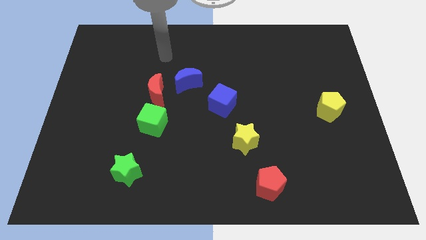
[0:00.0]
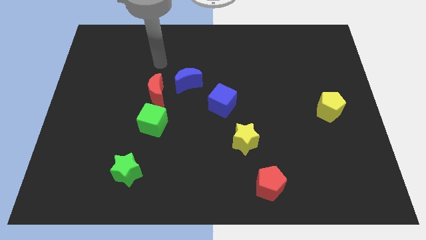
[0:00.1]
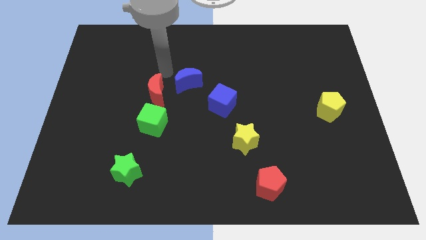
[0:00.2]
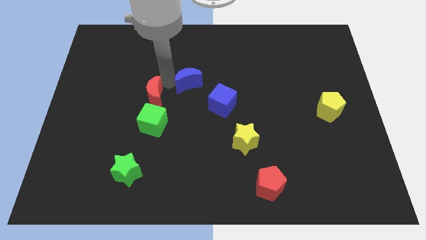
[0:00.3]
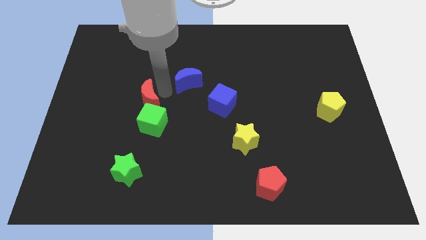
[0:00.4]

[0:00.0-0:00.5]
pull the blue moon apart from the red moon

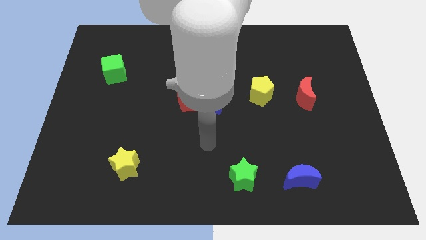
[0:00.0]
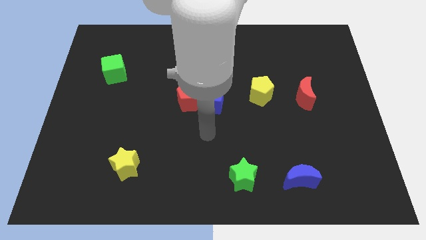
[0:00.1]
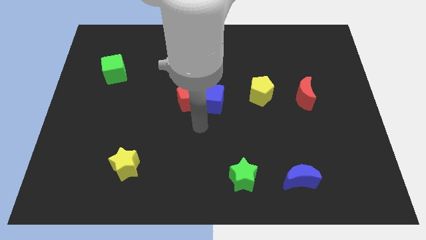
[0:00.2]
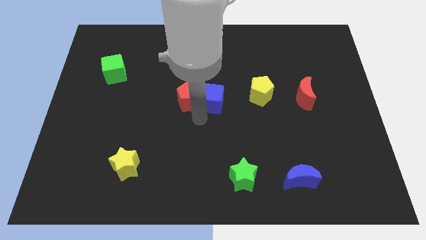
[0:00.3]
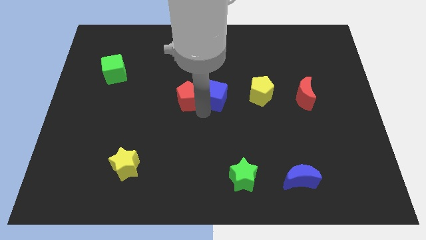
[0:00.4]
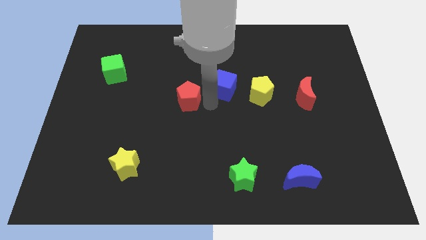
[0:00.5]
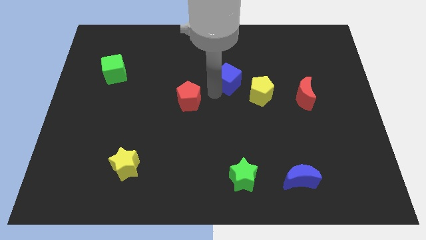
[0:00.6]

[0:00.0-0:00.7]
move the red pentagon away from the blue cube

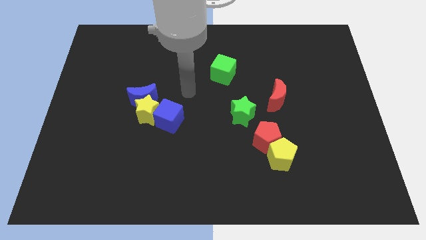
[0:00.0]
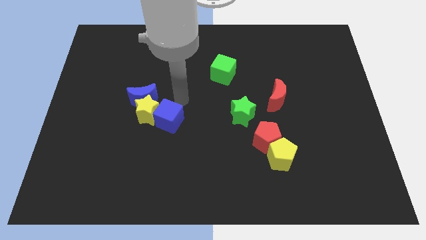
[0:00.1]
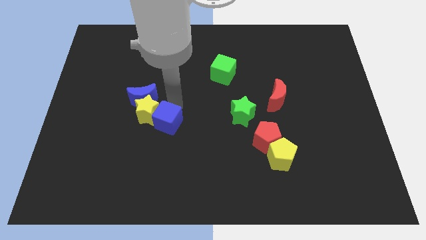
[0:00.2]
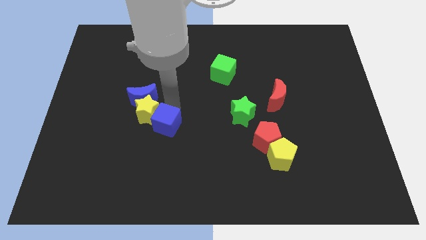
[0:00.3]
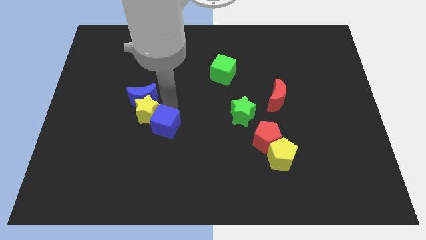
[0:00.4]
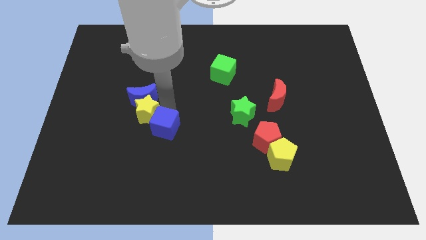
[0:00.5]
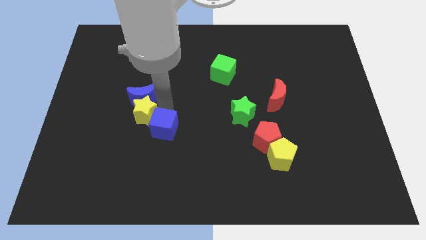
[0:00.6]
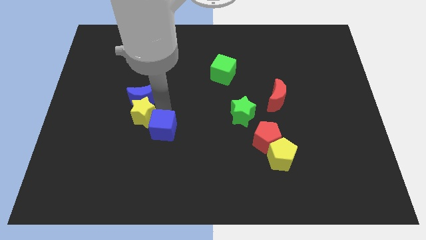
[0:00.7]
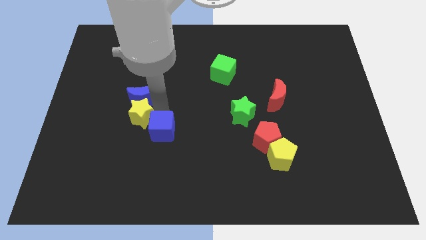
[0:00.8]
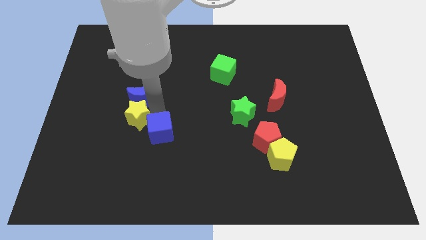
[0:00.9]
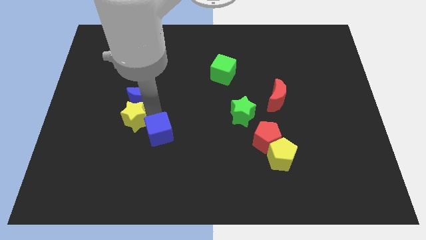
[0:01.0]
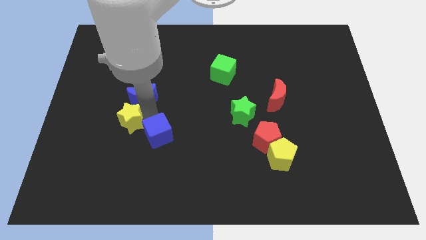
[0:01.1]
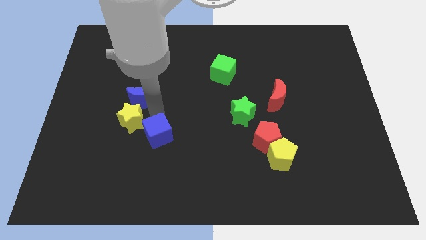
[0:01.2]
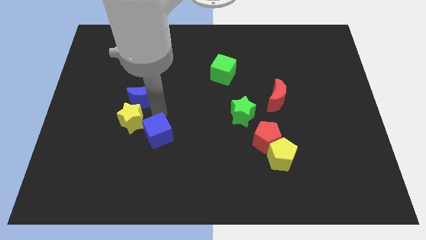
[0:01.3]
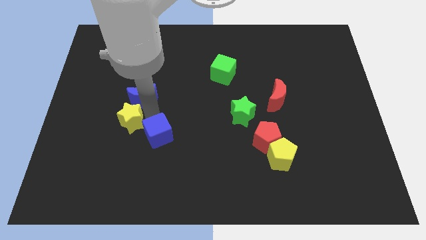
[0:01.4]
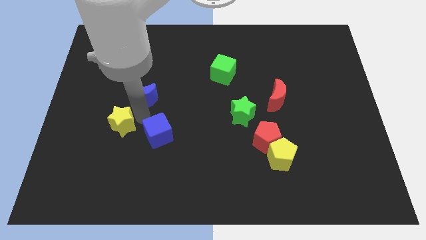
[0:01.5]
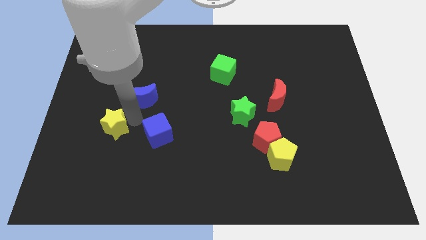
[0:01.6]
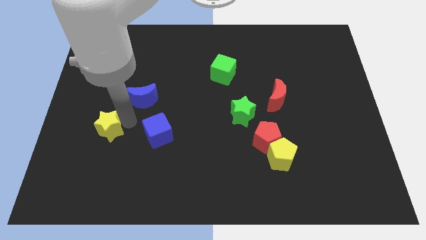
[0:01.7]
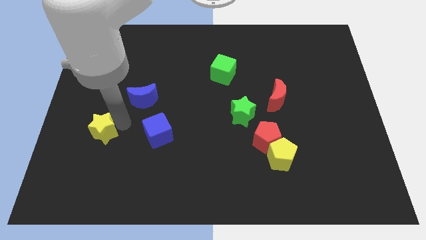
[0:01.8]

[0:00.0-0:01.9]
separate the yellow star from the blue moon and blue cube

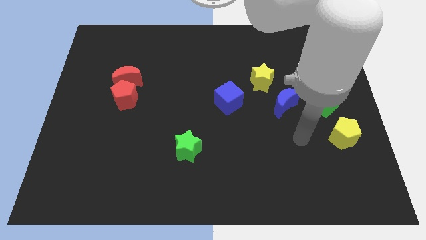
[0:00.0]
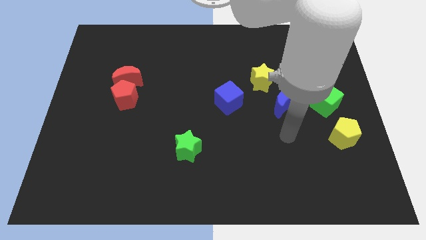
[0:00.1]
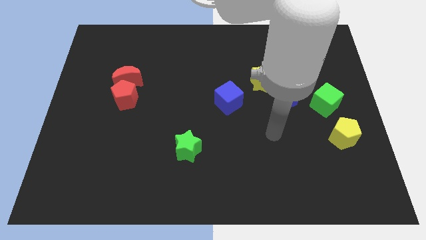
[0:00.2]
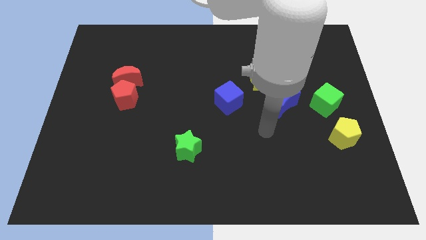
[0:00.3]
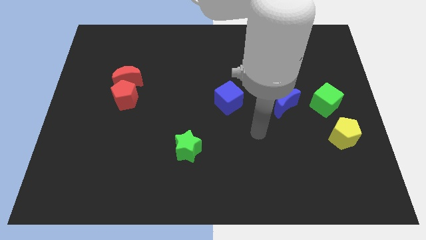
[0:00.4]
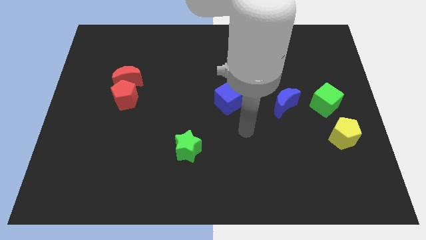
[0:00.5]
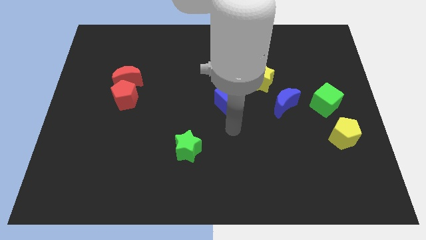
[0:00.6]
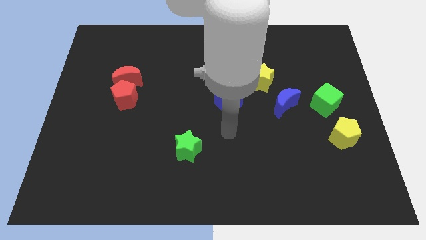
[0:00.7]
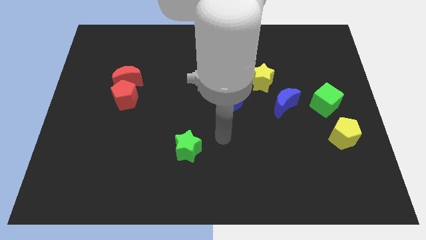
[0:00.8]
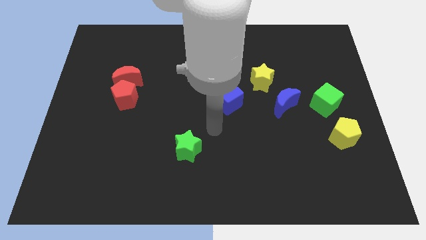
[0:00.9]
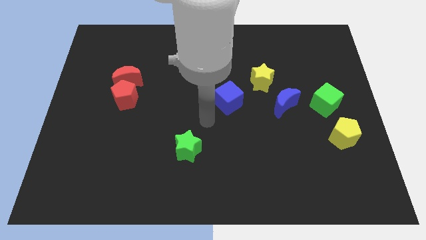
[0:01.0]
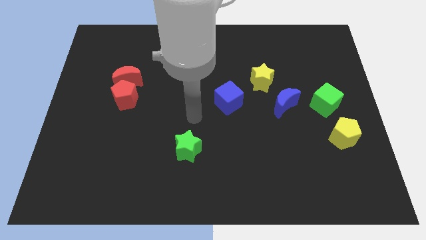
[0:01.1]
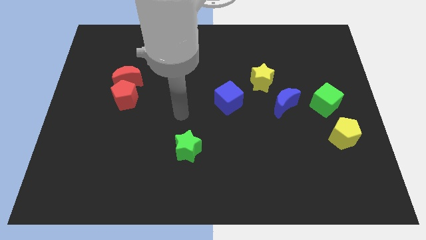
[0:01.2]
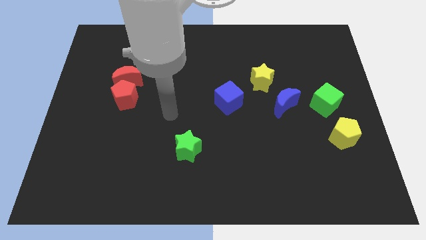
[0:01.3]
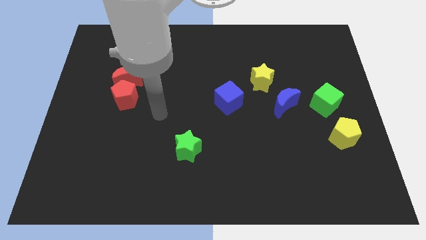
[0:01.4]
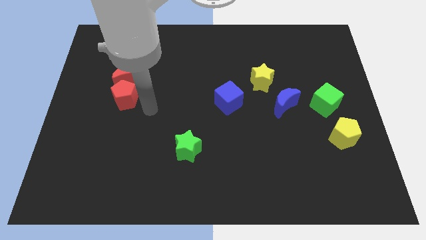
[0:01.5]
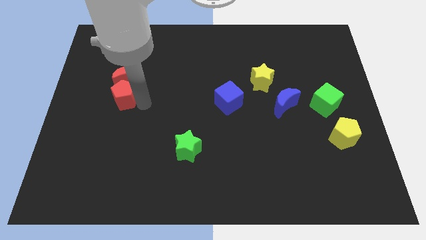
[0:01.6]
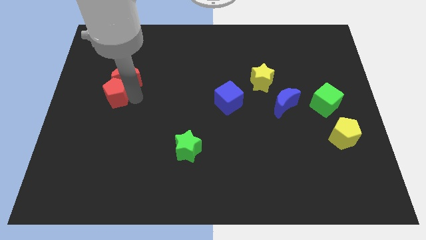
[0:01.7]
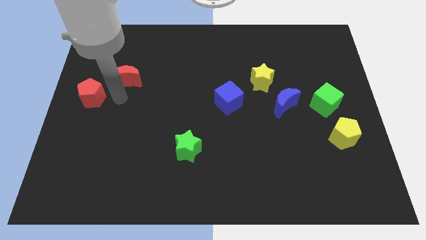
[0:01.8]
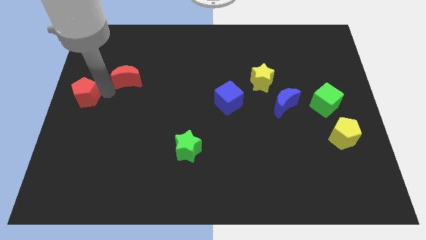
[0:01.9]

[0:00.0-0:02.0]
separate the red moon from the red pentagon

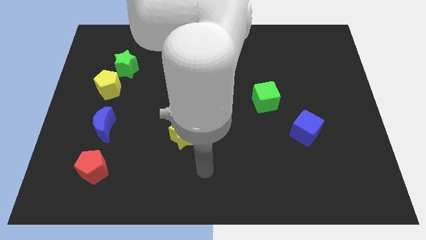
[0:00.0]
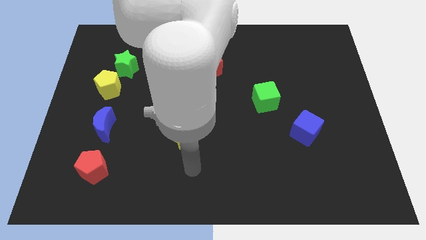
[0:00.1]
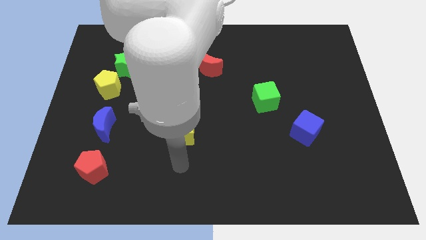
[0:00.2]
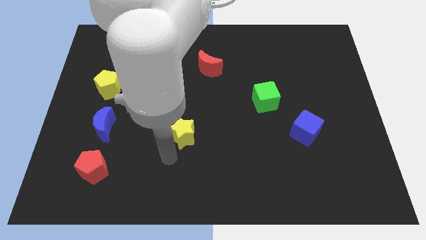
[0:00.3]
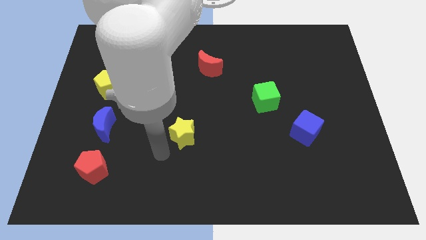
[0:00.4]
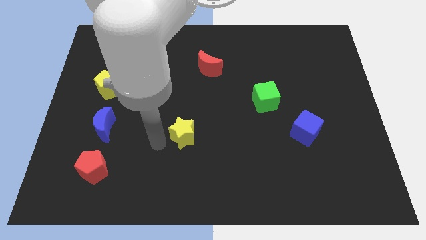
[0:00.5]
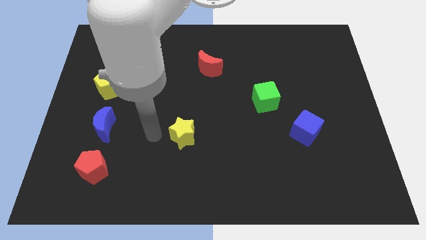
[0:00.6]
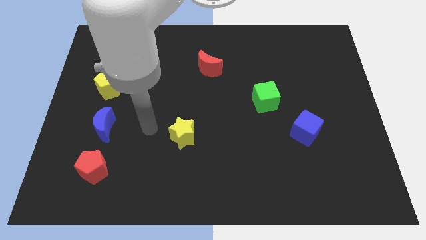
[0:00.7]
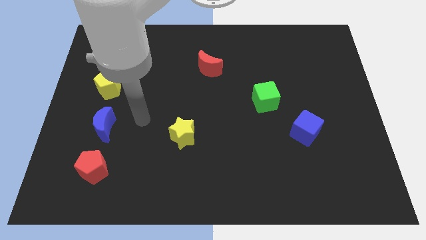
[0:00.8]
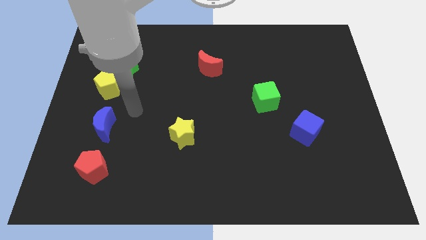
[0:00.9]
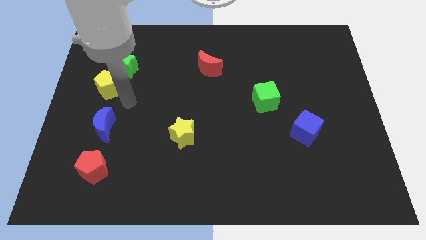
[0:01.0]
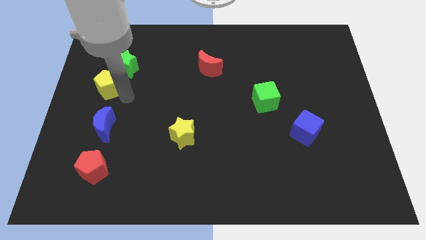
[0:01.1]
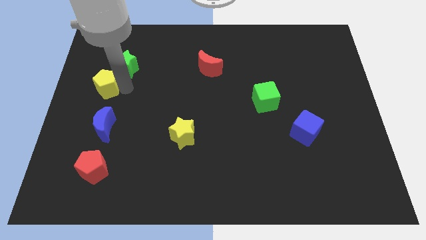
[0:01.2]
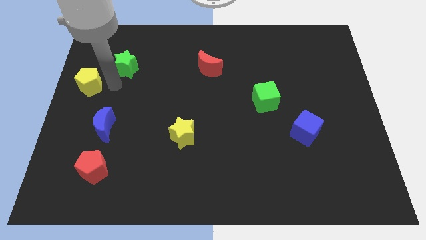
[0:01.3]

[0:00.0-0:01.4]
pull the green star apart from the yellow pentagon

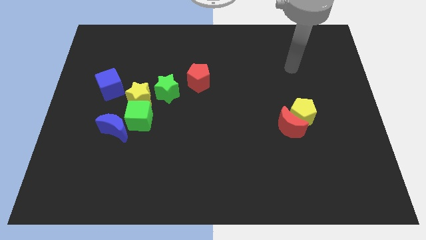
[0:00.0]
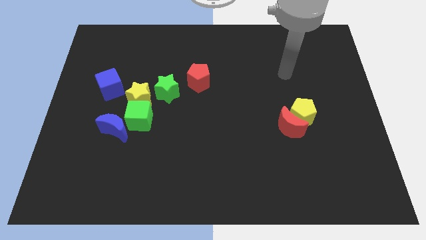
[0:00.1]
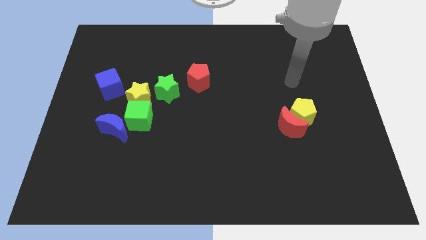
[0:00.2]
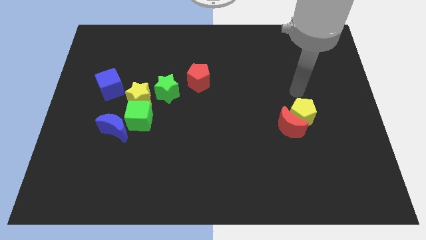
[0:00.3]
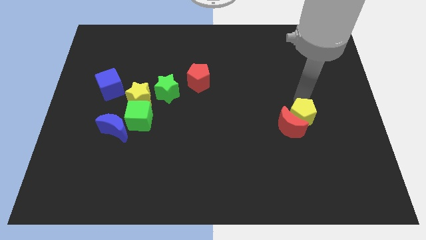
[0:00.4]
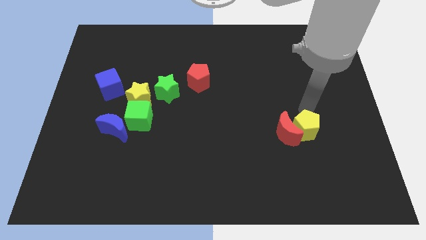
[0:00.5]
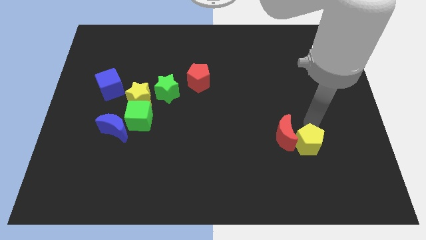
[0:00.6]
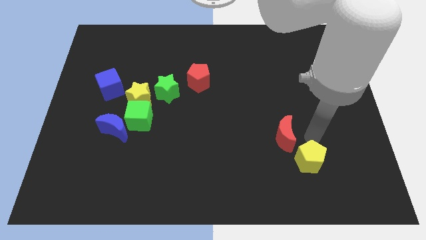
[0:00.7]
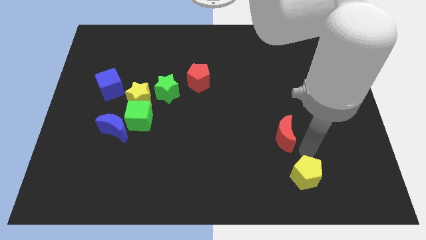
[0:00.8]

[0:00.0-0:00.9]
pull the red moon apart from the yellow pentagon

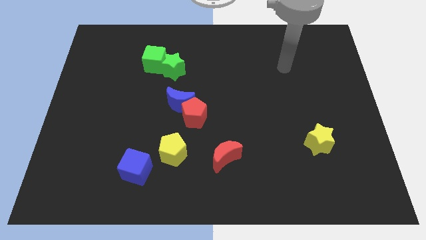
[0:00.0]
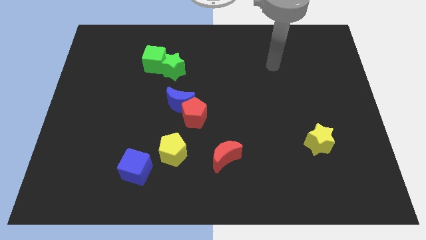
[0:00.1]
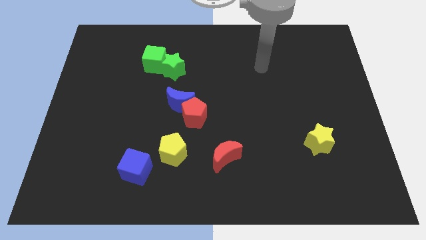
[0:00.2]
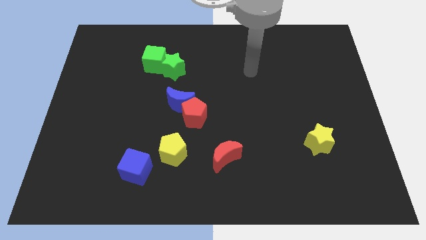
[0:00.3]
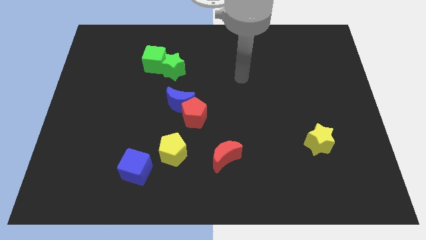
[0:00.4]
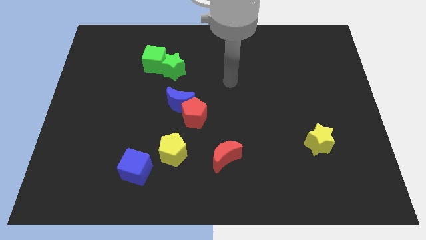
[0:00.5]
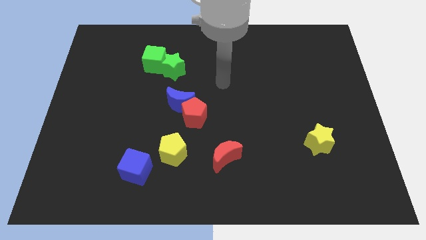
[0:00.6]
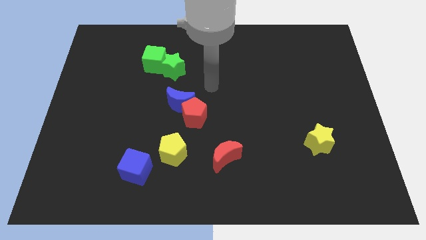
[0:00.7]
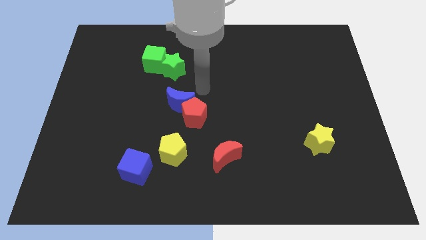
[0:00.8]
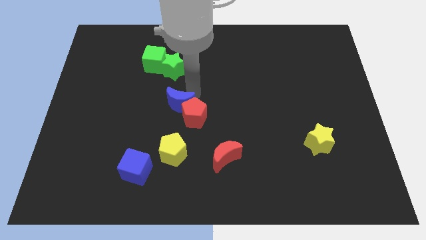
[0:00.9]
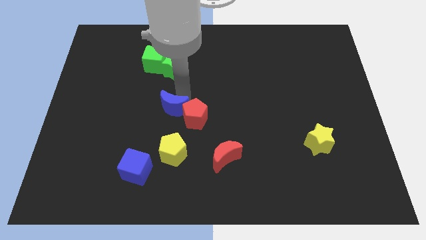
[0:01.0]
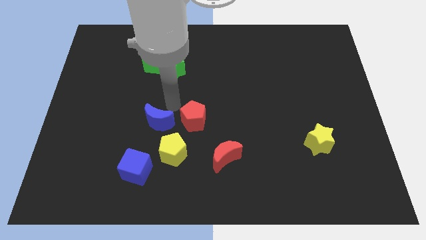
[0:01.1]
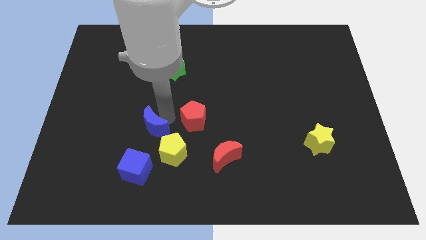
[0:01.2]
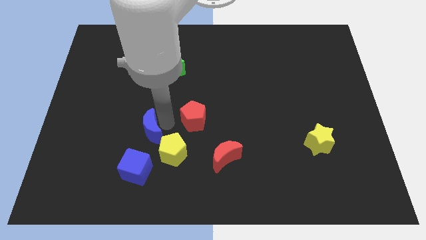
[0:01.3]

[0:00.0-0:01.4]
pull the red pentagon apart from the blue moon

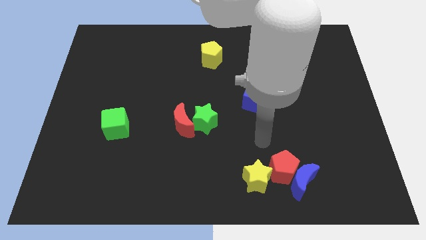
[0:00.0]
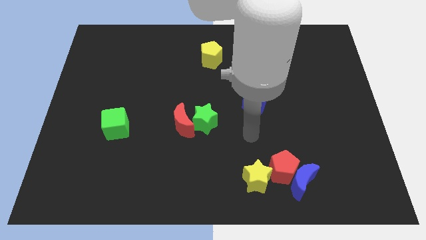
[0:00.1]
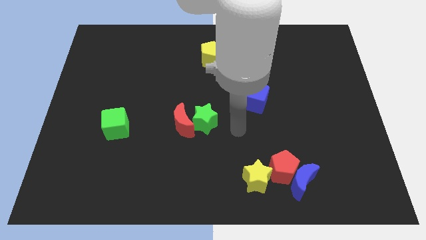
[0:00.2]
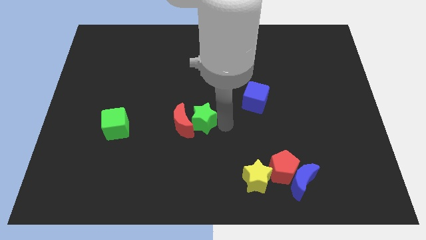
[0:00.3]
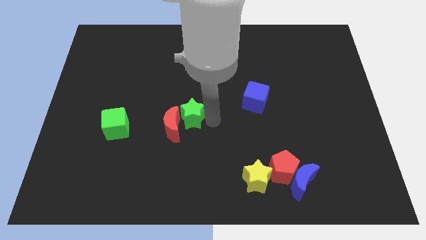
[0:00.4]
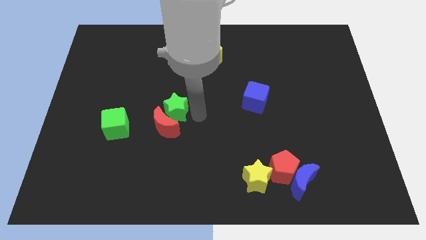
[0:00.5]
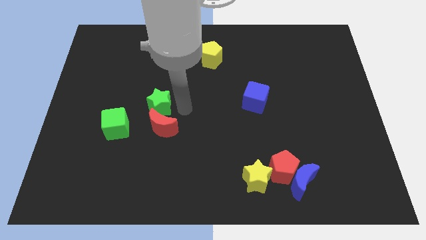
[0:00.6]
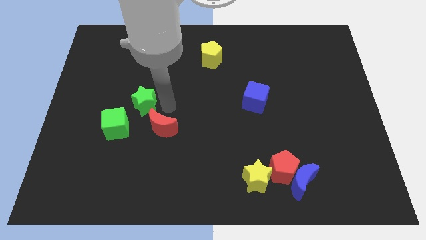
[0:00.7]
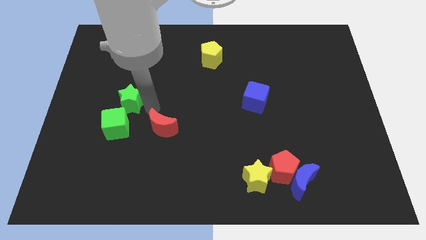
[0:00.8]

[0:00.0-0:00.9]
pull the red moon apart from the green star
